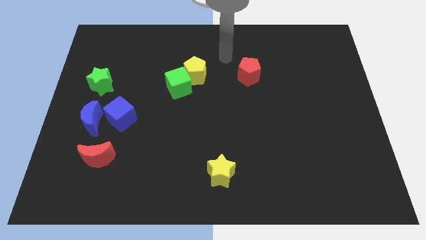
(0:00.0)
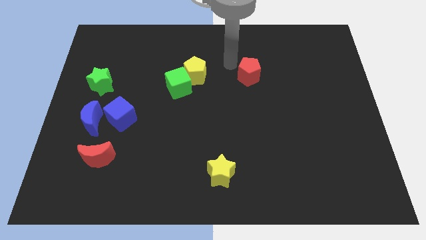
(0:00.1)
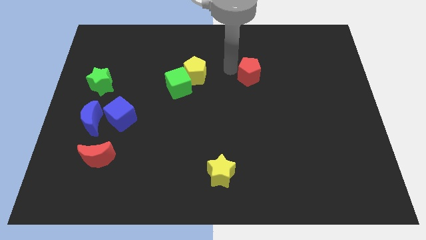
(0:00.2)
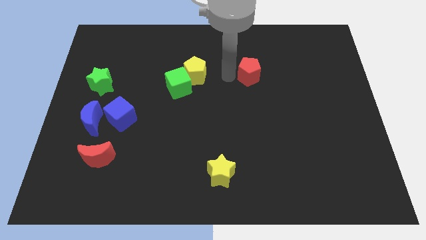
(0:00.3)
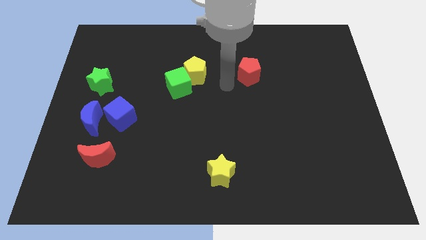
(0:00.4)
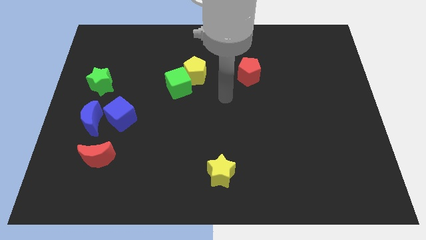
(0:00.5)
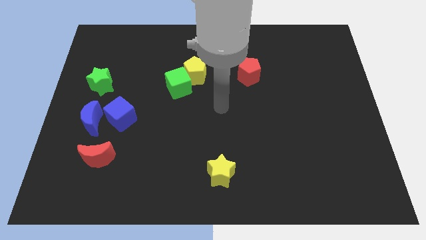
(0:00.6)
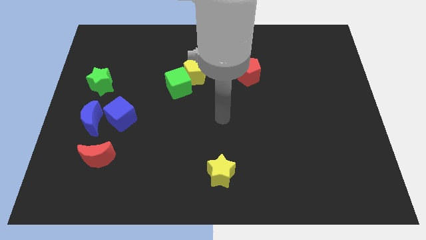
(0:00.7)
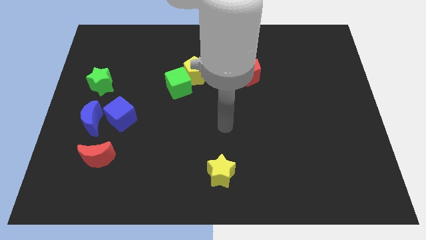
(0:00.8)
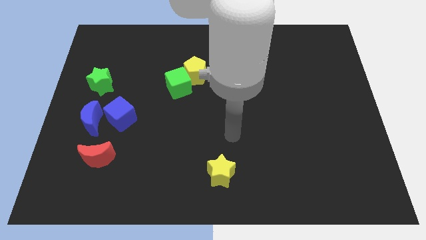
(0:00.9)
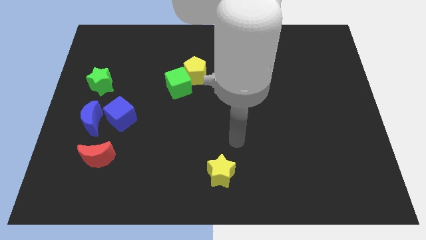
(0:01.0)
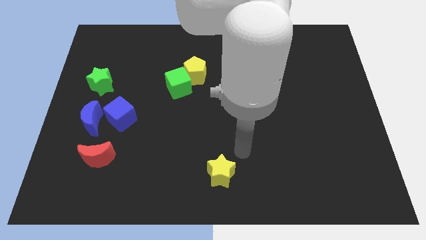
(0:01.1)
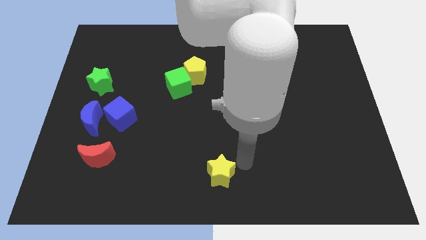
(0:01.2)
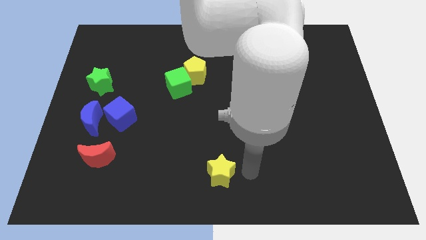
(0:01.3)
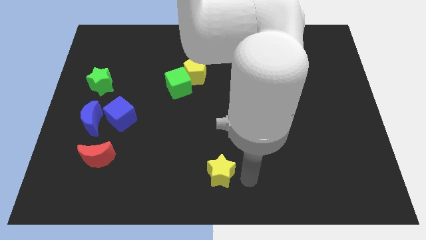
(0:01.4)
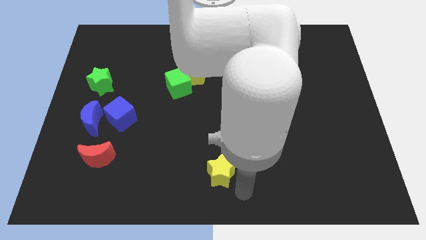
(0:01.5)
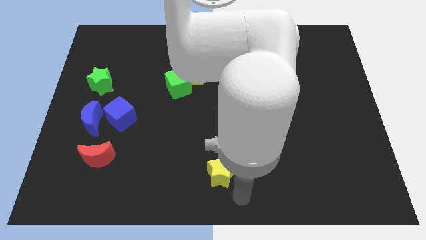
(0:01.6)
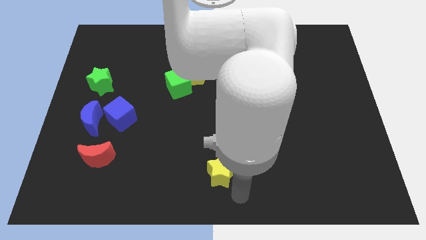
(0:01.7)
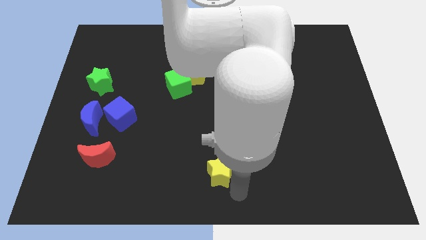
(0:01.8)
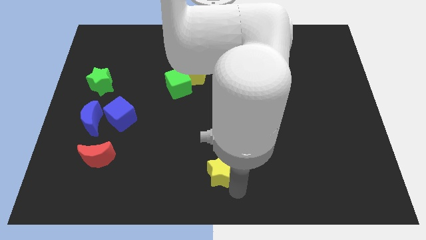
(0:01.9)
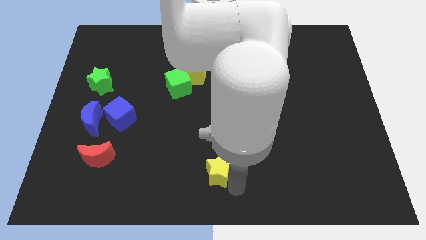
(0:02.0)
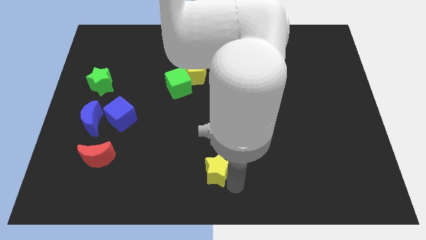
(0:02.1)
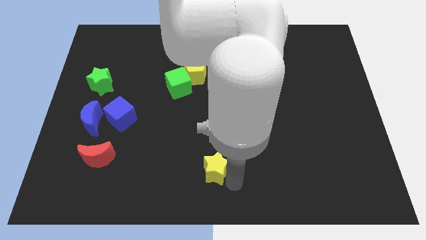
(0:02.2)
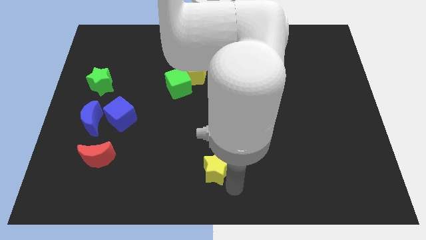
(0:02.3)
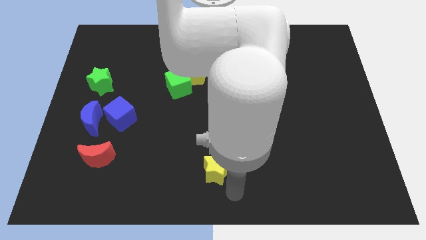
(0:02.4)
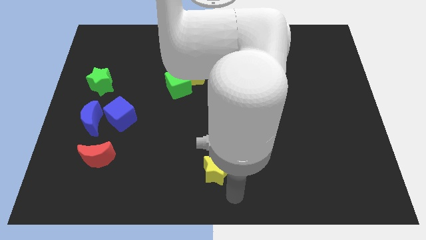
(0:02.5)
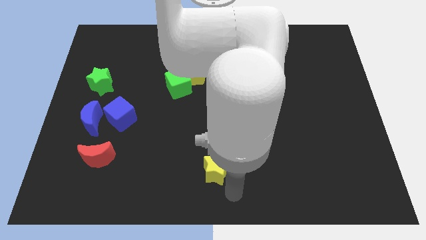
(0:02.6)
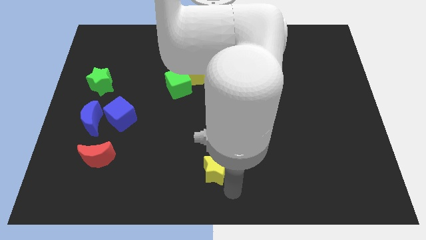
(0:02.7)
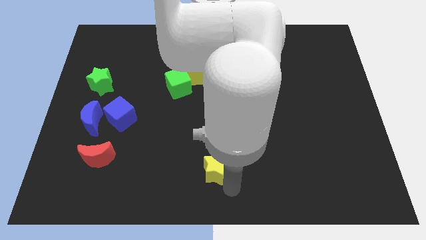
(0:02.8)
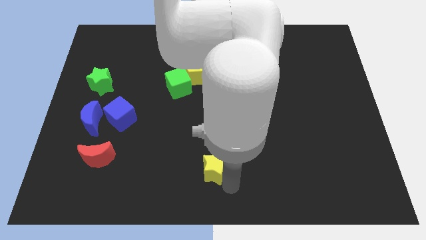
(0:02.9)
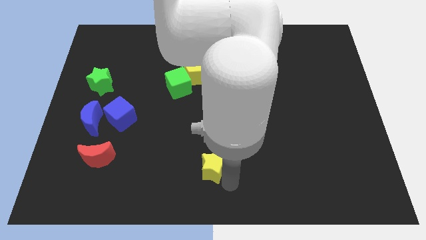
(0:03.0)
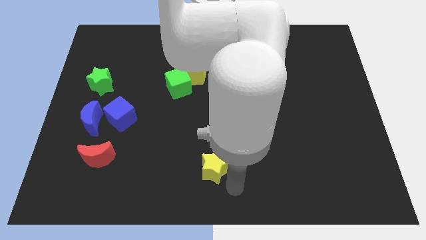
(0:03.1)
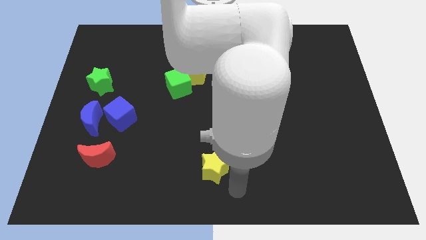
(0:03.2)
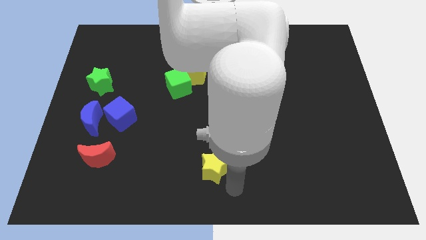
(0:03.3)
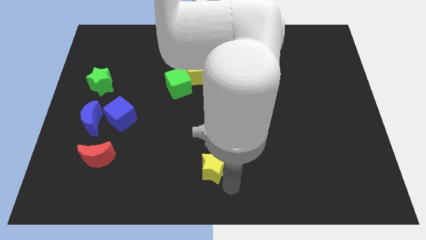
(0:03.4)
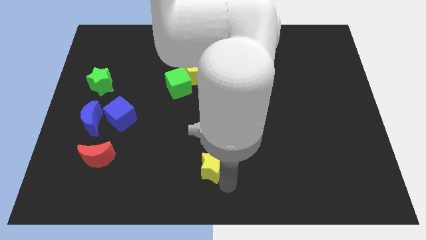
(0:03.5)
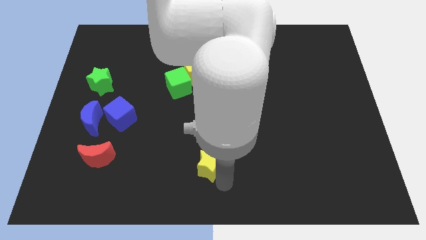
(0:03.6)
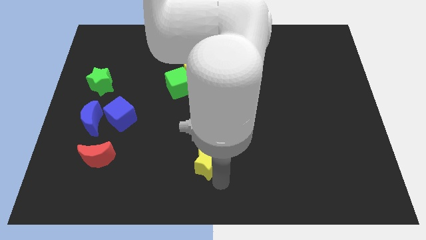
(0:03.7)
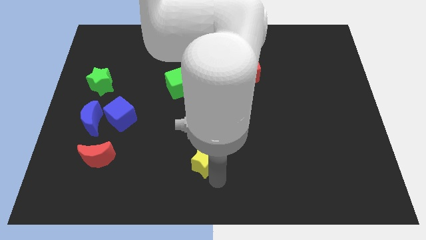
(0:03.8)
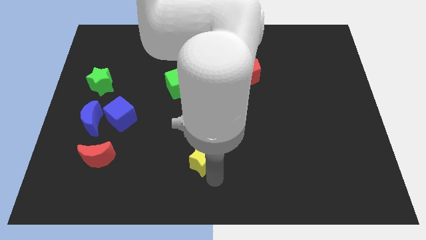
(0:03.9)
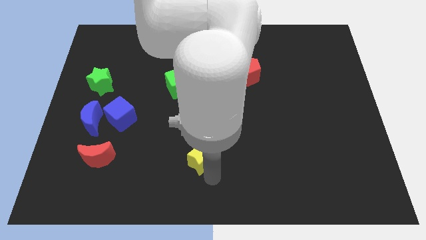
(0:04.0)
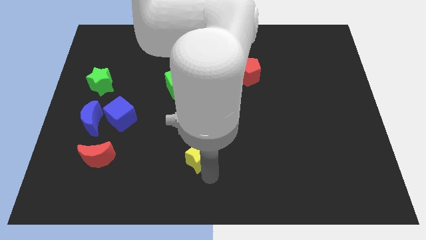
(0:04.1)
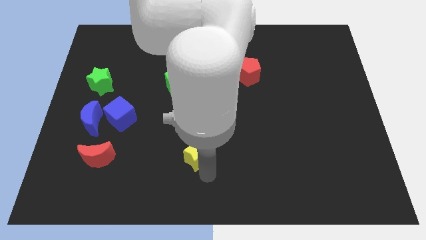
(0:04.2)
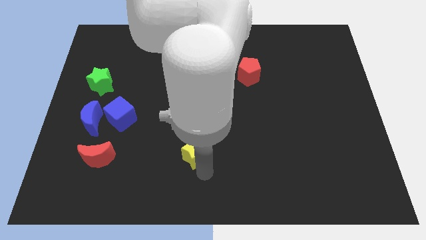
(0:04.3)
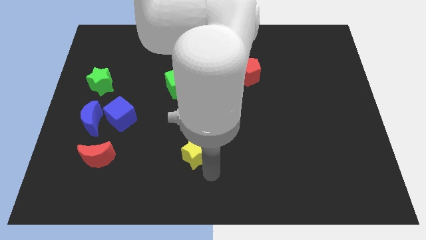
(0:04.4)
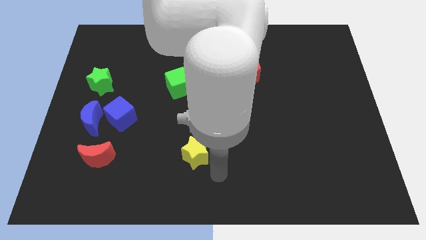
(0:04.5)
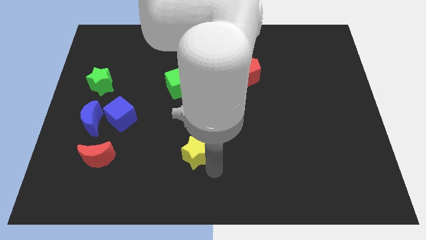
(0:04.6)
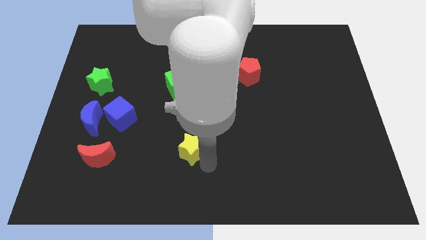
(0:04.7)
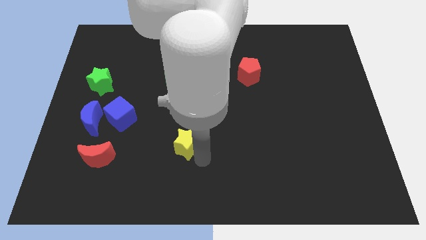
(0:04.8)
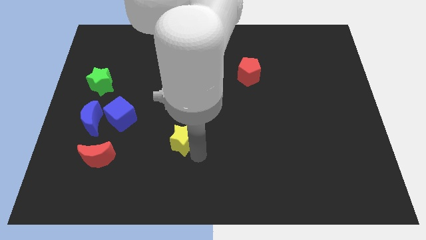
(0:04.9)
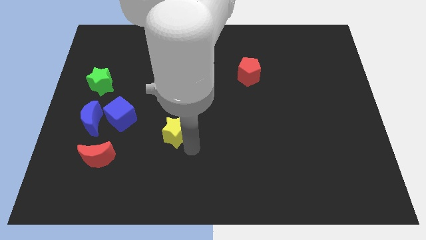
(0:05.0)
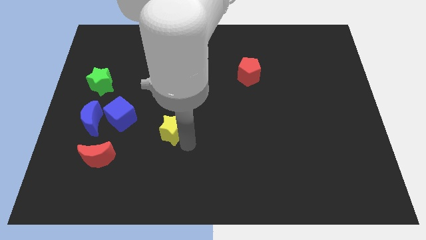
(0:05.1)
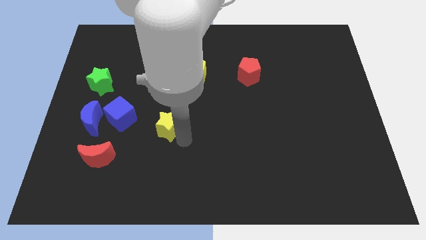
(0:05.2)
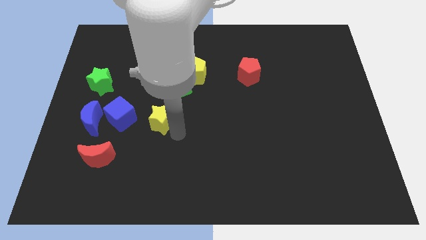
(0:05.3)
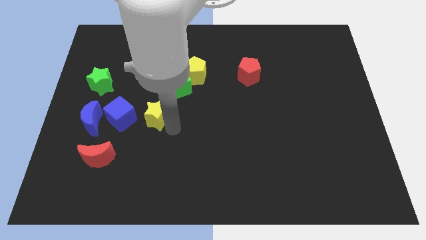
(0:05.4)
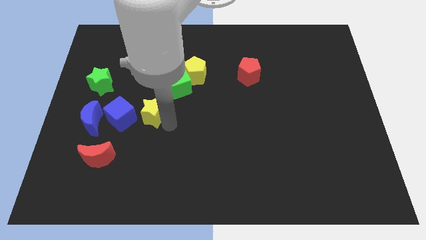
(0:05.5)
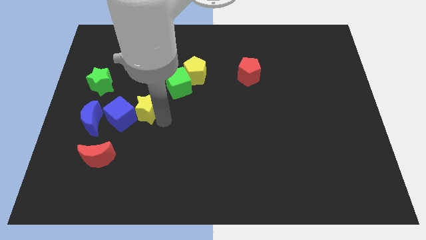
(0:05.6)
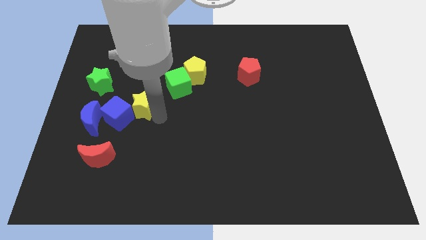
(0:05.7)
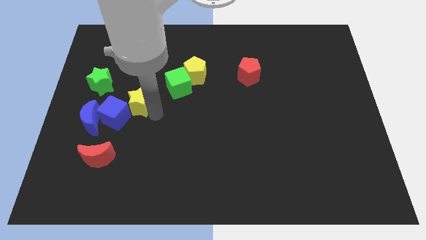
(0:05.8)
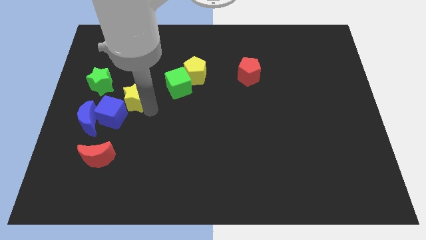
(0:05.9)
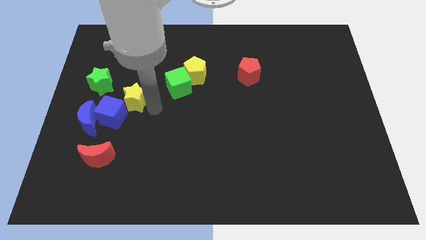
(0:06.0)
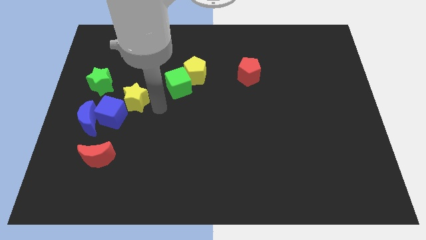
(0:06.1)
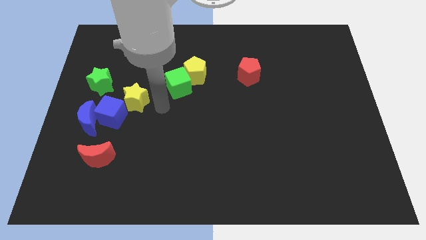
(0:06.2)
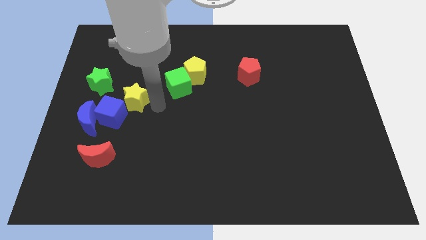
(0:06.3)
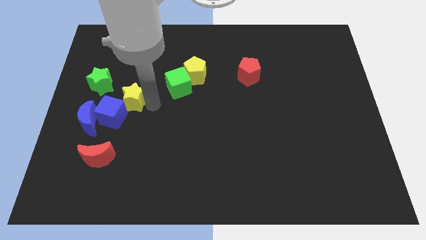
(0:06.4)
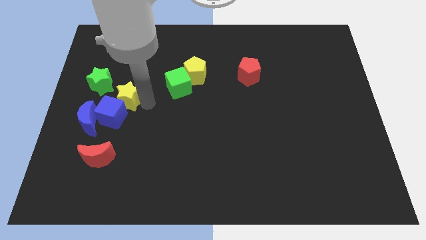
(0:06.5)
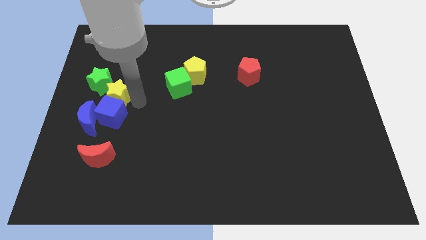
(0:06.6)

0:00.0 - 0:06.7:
push the yellow star to the green star

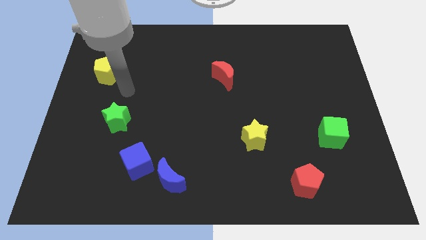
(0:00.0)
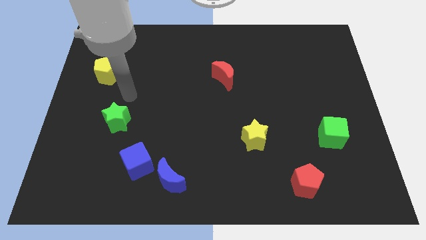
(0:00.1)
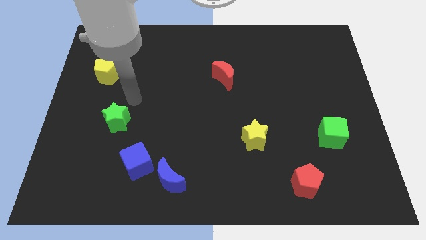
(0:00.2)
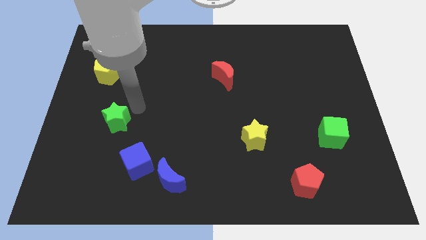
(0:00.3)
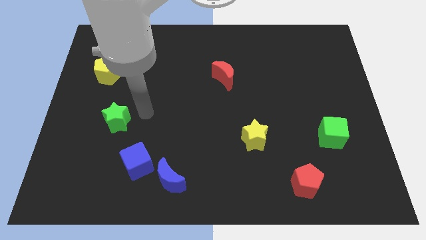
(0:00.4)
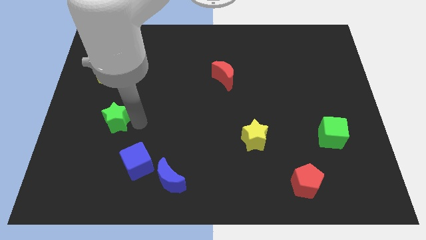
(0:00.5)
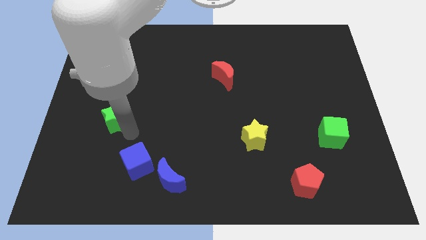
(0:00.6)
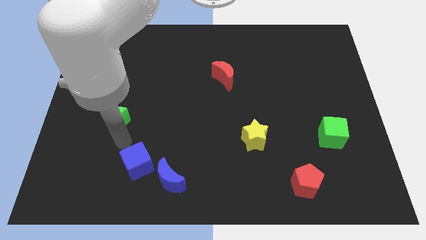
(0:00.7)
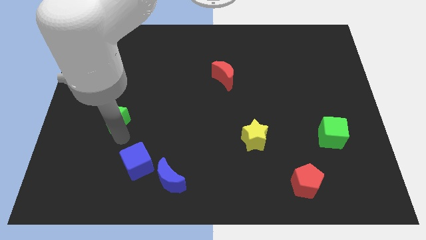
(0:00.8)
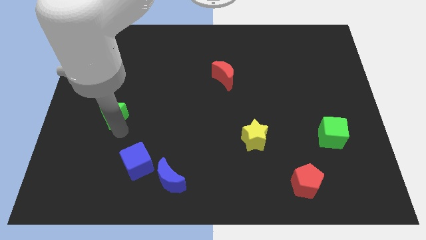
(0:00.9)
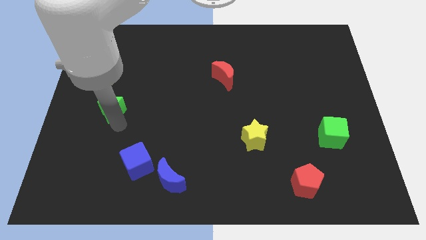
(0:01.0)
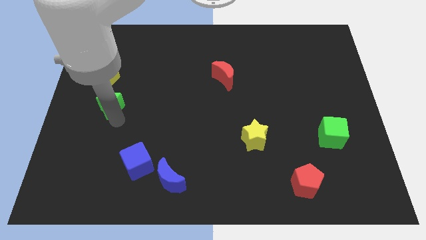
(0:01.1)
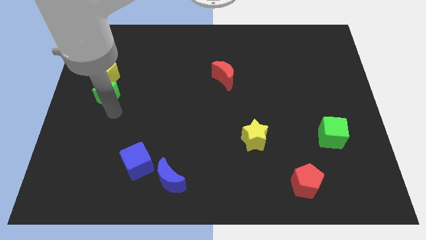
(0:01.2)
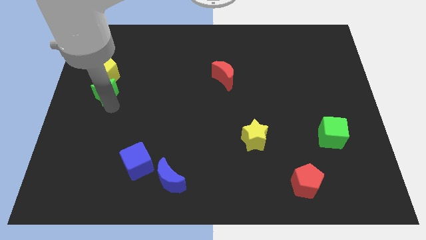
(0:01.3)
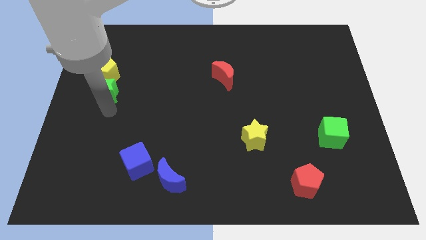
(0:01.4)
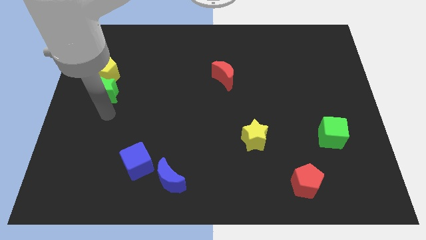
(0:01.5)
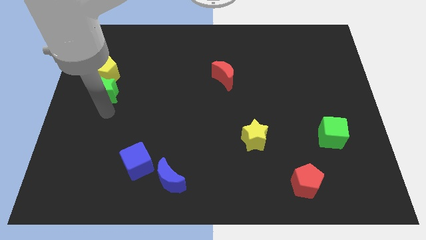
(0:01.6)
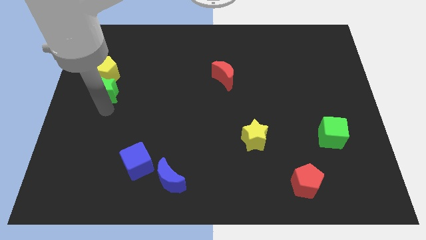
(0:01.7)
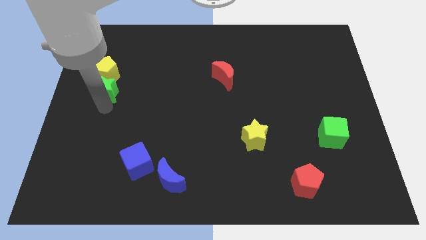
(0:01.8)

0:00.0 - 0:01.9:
slide the green star towards the yellow pentagon
